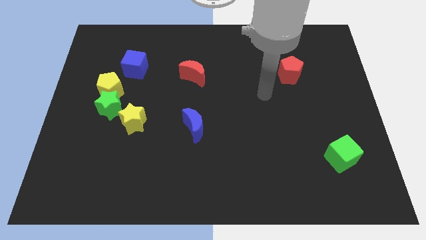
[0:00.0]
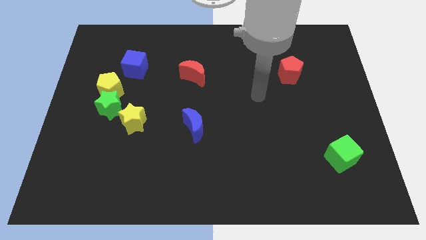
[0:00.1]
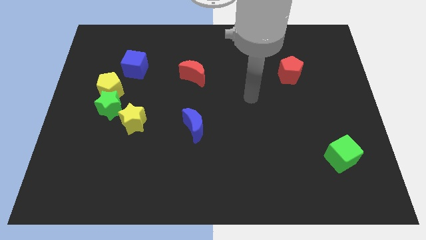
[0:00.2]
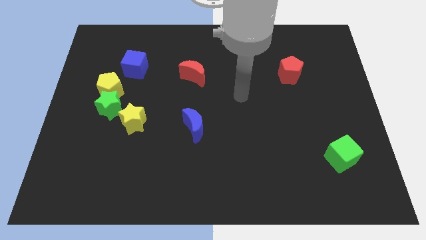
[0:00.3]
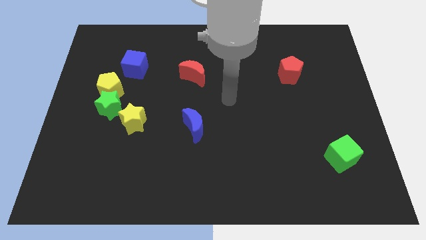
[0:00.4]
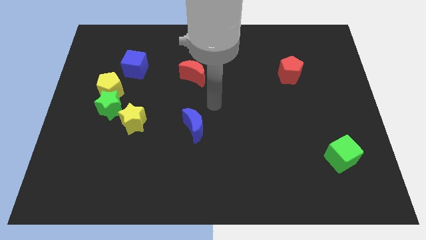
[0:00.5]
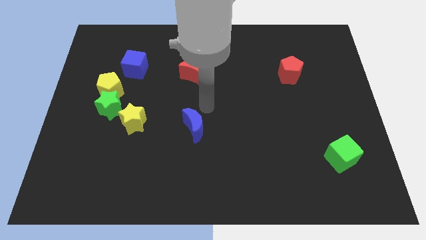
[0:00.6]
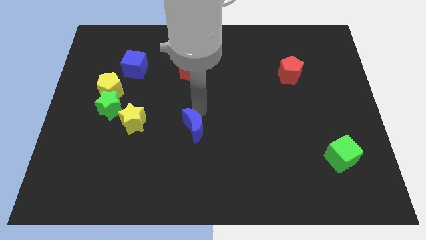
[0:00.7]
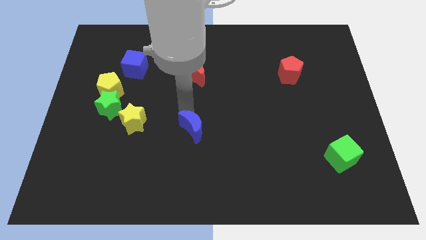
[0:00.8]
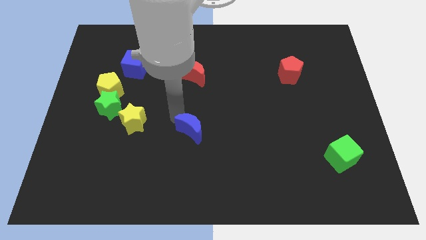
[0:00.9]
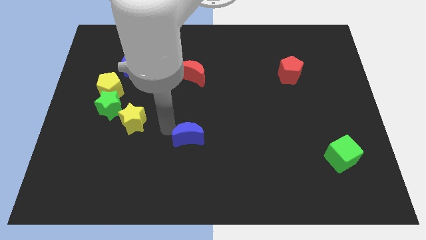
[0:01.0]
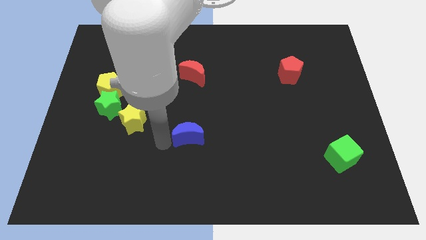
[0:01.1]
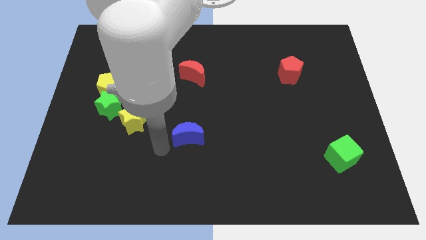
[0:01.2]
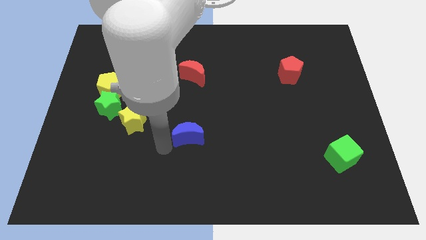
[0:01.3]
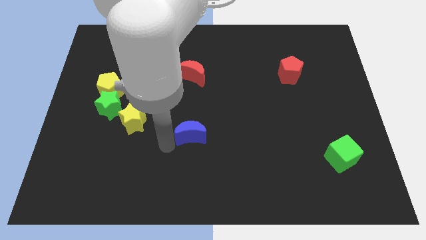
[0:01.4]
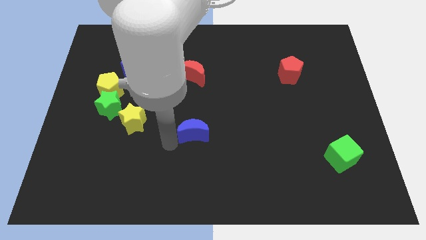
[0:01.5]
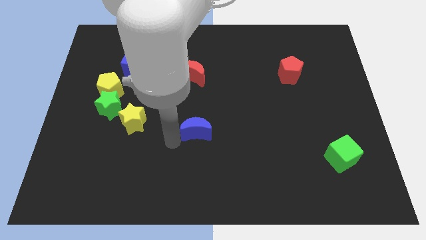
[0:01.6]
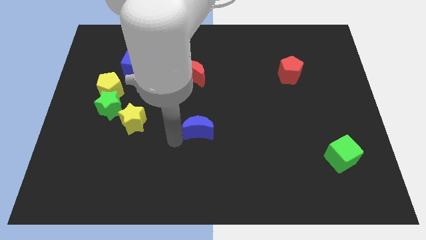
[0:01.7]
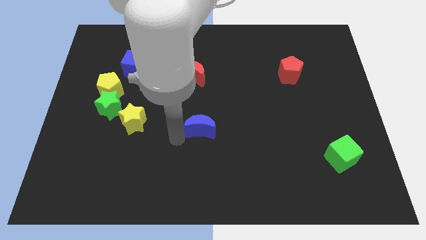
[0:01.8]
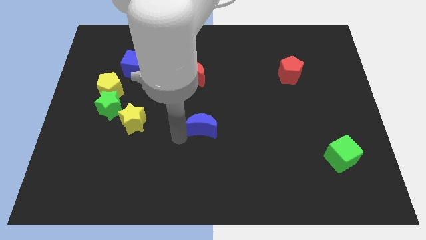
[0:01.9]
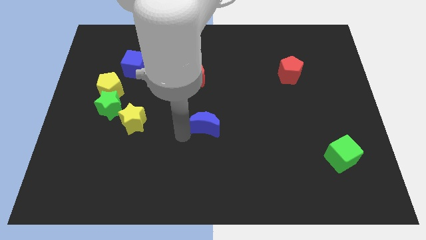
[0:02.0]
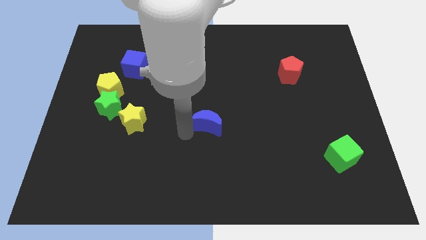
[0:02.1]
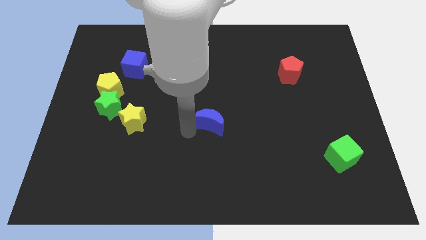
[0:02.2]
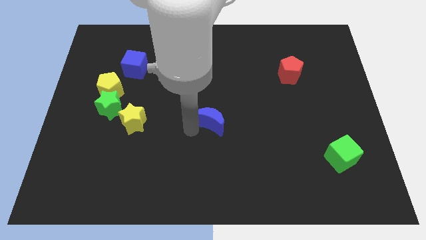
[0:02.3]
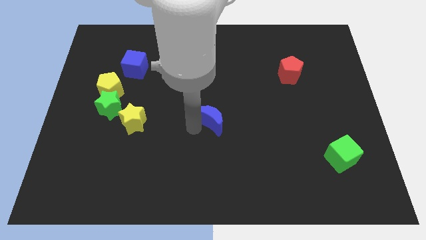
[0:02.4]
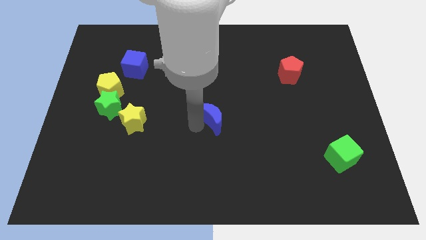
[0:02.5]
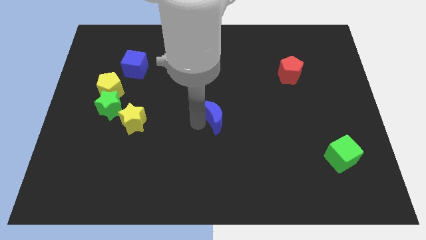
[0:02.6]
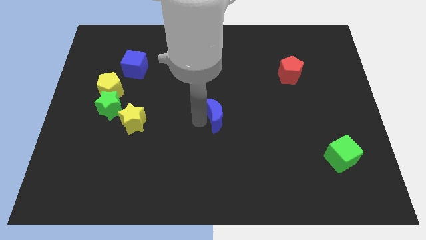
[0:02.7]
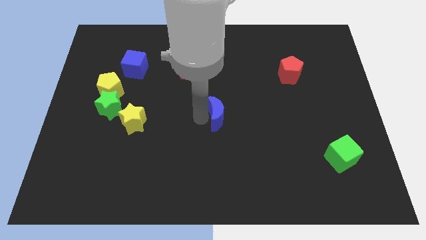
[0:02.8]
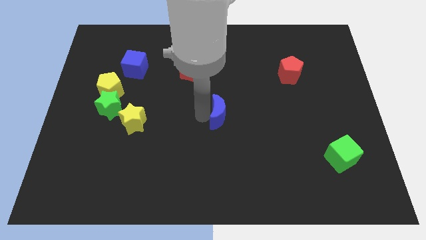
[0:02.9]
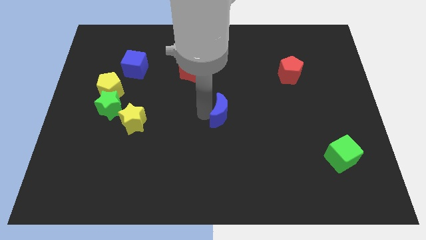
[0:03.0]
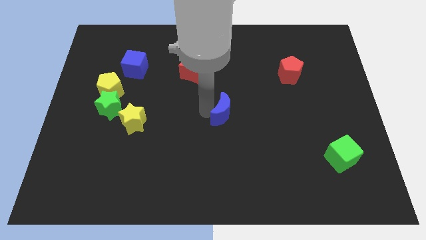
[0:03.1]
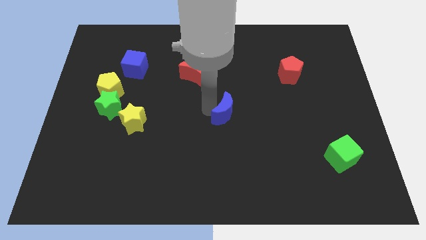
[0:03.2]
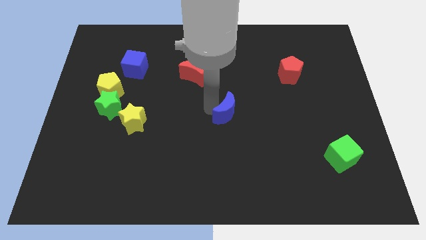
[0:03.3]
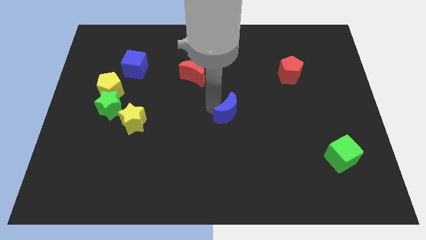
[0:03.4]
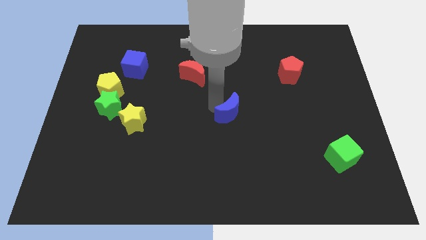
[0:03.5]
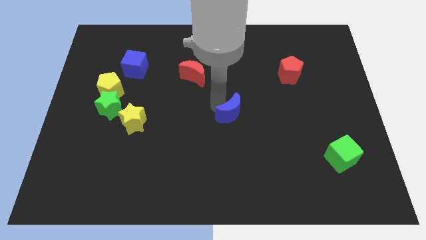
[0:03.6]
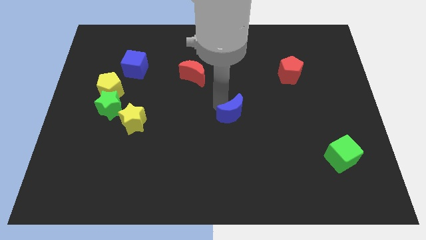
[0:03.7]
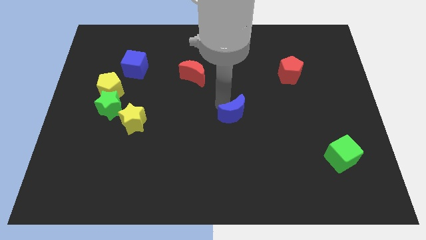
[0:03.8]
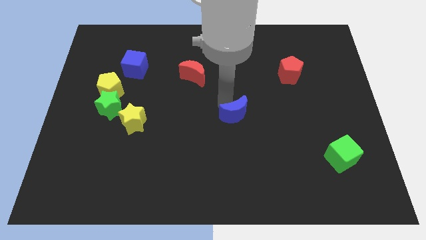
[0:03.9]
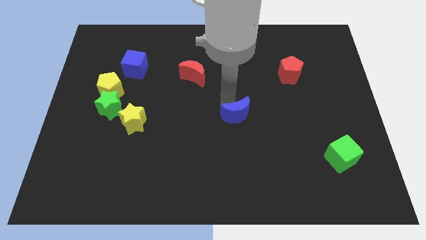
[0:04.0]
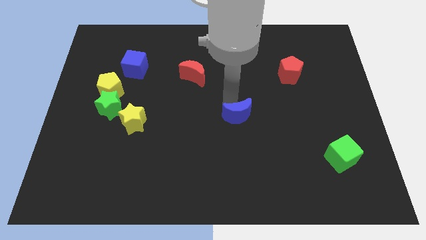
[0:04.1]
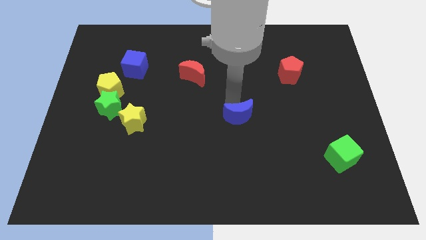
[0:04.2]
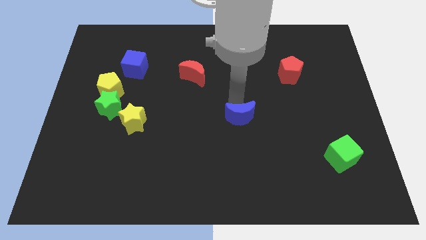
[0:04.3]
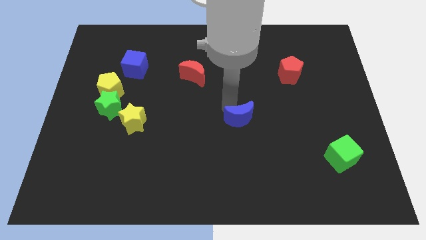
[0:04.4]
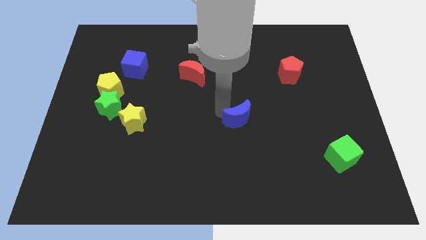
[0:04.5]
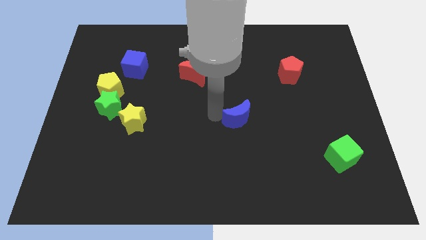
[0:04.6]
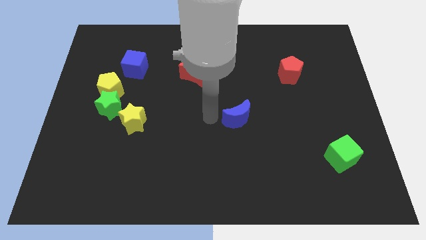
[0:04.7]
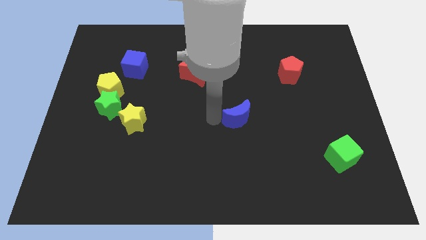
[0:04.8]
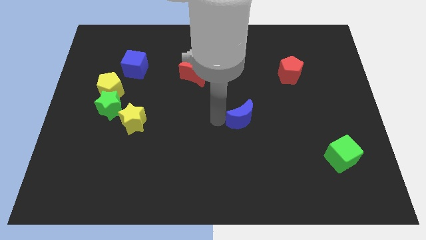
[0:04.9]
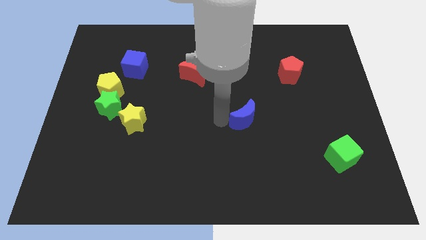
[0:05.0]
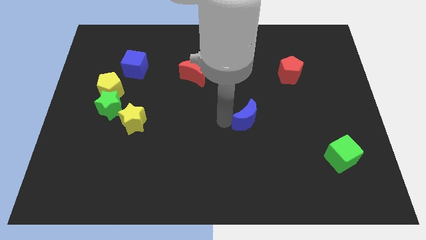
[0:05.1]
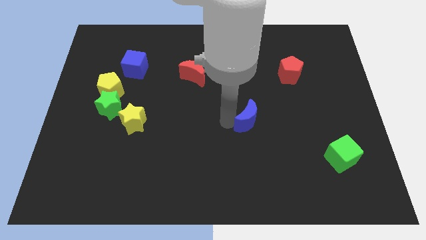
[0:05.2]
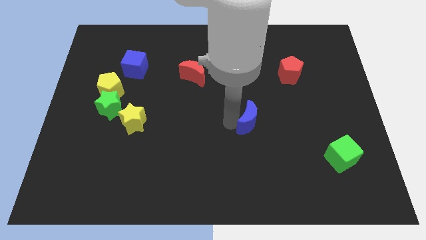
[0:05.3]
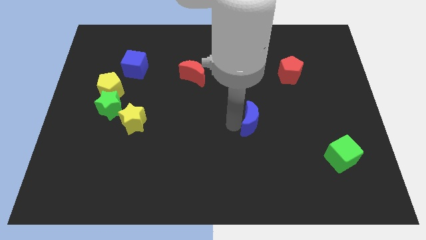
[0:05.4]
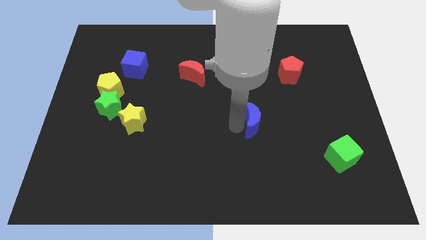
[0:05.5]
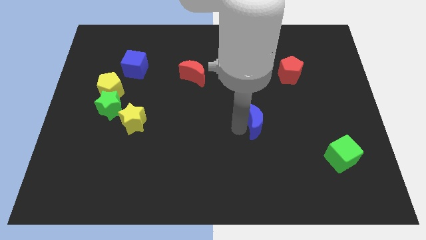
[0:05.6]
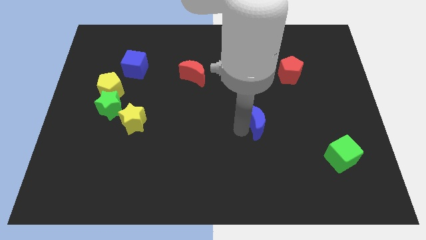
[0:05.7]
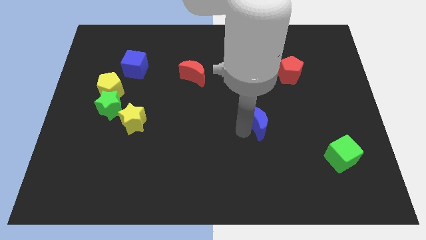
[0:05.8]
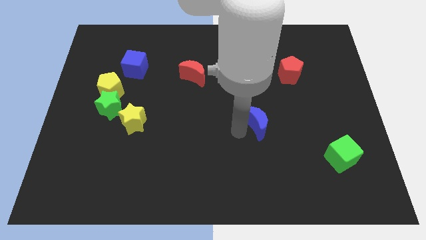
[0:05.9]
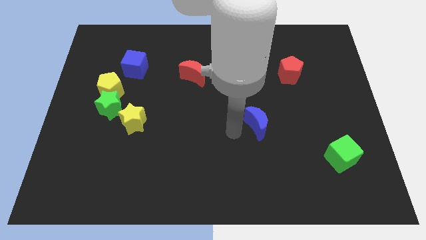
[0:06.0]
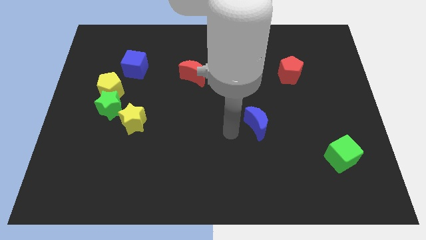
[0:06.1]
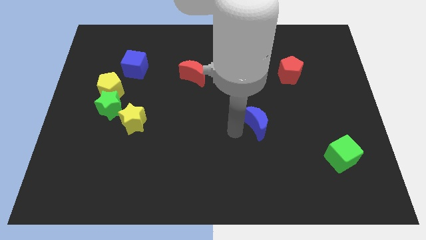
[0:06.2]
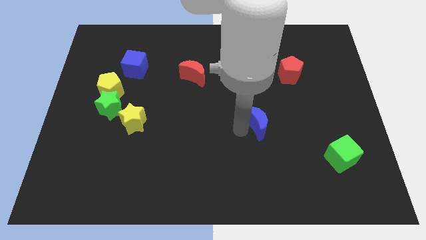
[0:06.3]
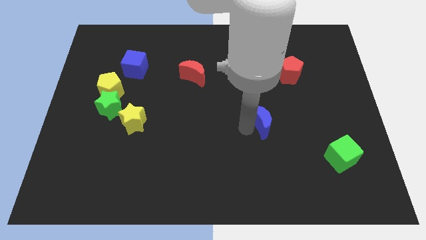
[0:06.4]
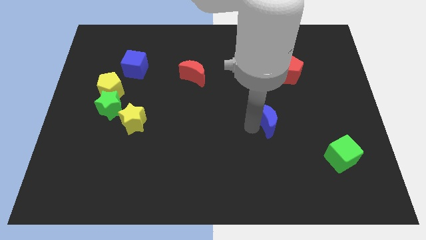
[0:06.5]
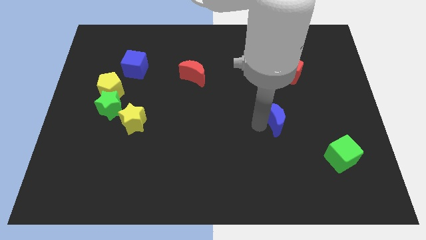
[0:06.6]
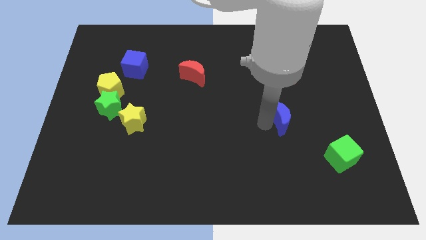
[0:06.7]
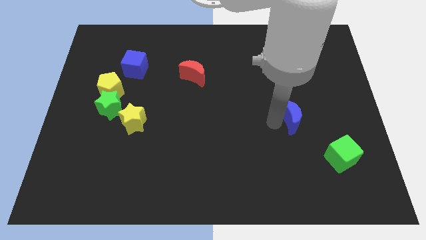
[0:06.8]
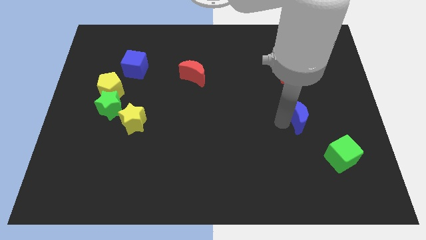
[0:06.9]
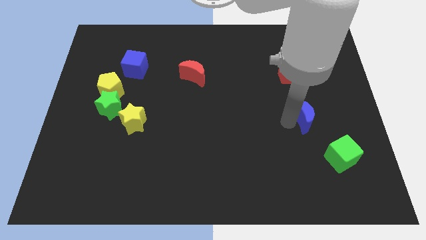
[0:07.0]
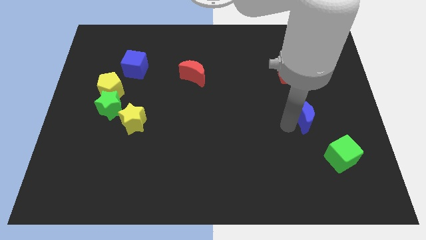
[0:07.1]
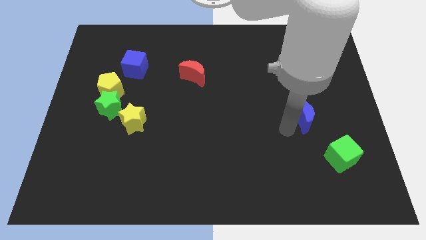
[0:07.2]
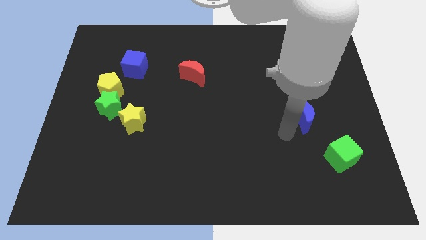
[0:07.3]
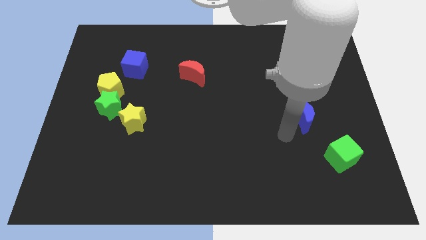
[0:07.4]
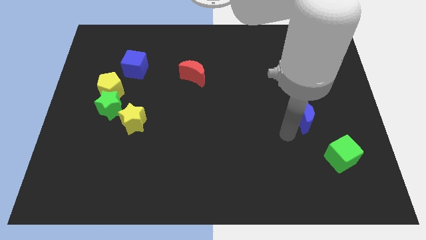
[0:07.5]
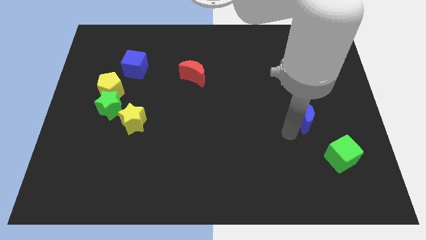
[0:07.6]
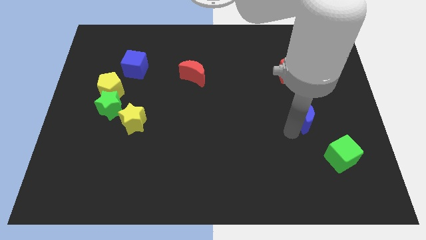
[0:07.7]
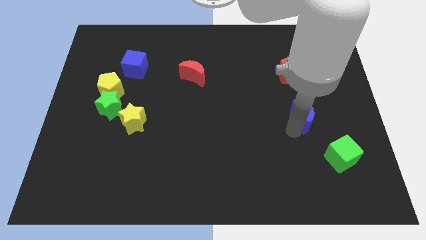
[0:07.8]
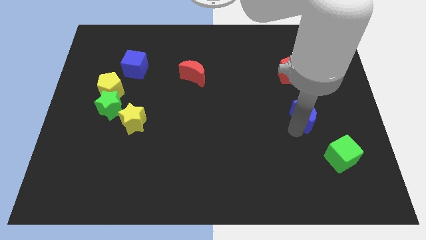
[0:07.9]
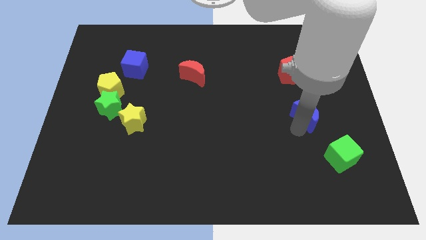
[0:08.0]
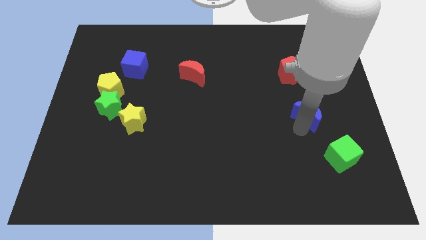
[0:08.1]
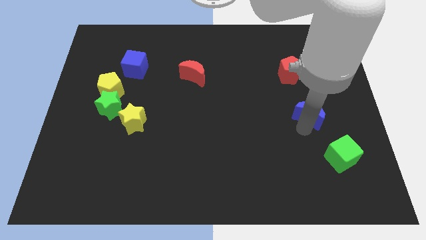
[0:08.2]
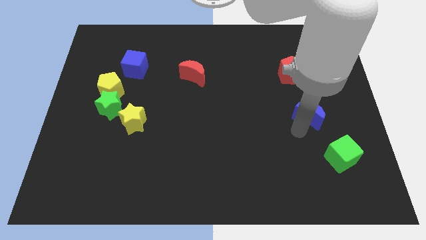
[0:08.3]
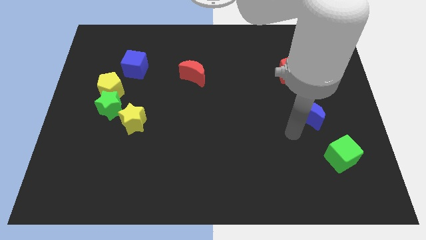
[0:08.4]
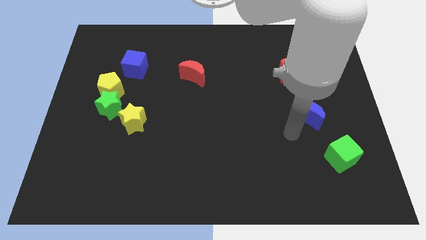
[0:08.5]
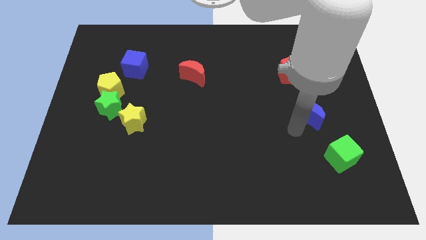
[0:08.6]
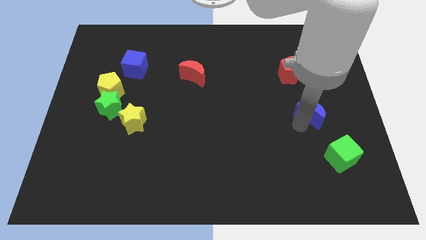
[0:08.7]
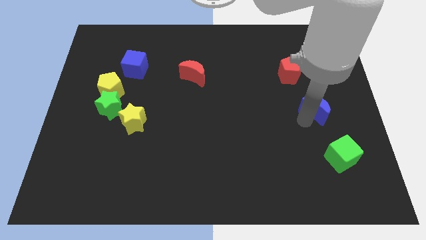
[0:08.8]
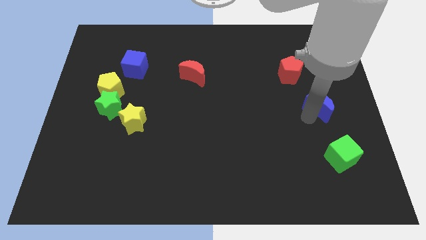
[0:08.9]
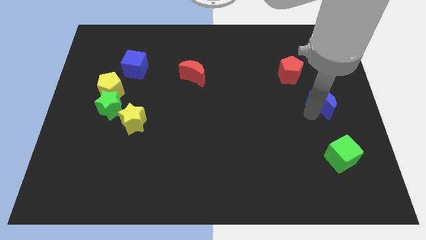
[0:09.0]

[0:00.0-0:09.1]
push the blue moon to the center right
